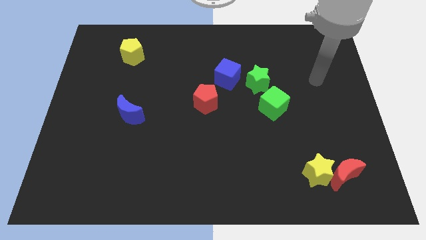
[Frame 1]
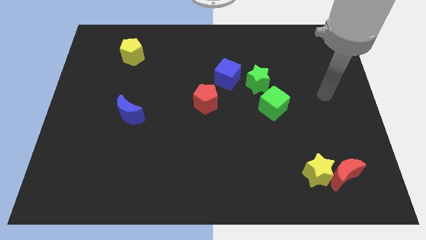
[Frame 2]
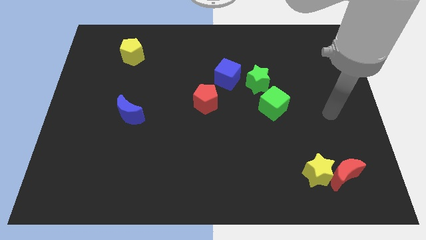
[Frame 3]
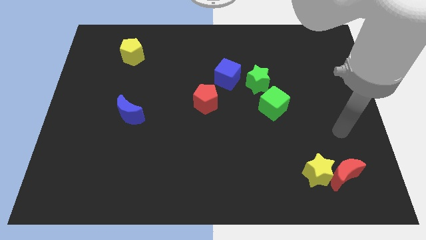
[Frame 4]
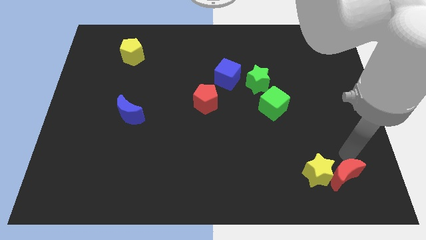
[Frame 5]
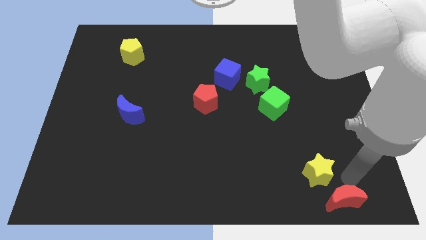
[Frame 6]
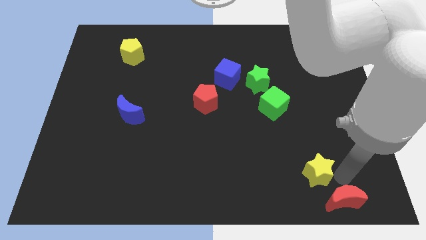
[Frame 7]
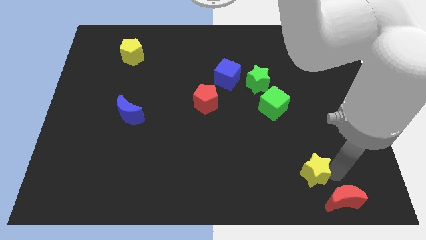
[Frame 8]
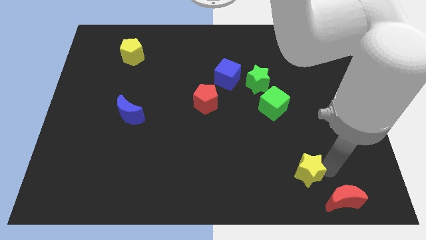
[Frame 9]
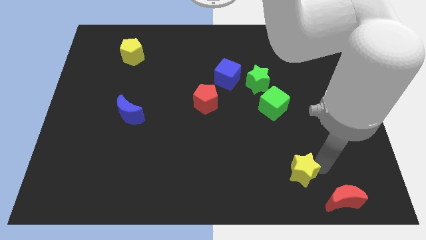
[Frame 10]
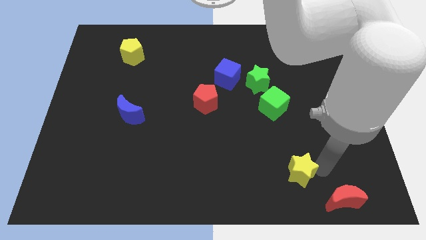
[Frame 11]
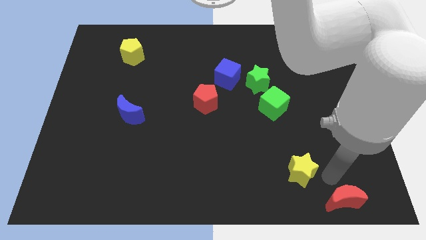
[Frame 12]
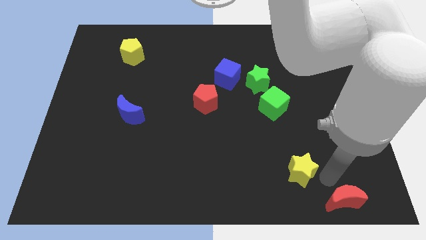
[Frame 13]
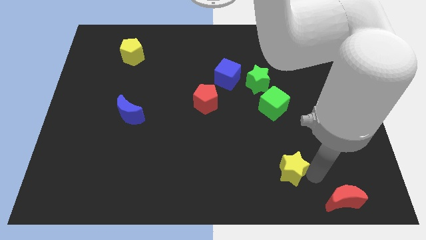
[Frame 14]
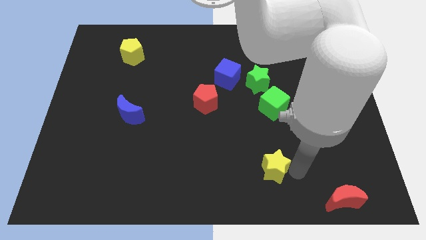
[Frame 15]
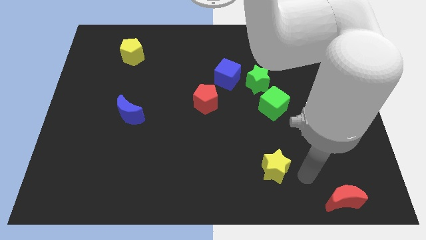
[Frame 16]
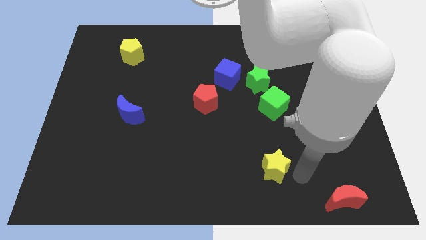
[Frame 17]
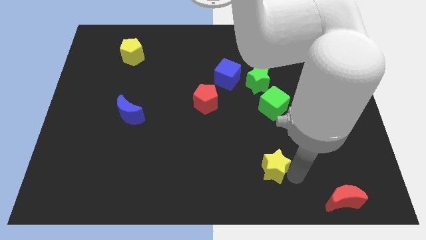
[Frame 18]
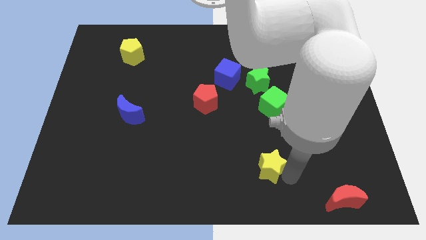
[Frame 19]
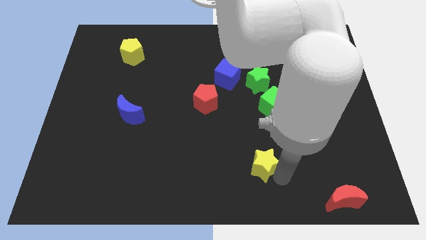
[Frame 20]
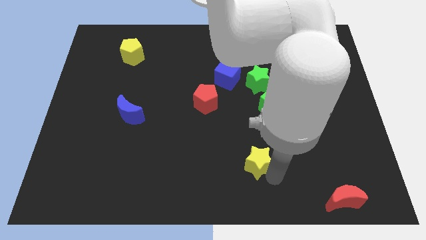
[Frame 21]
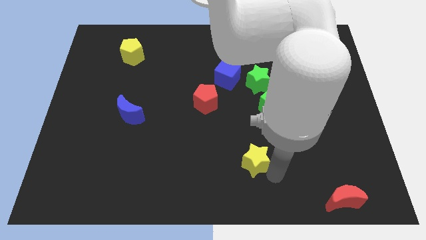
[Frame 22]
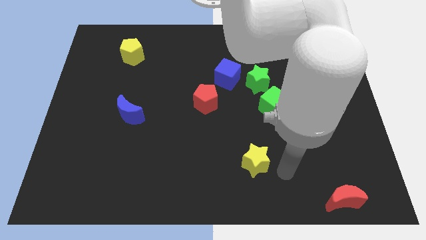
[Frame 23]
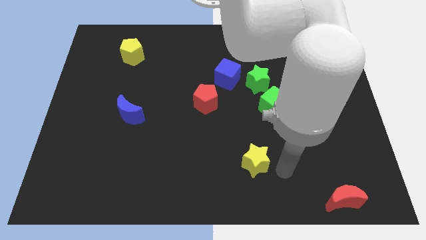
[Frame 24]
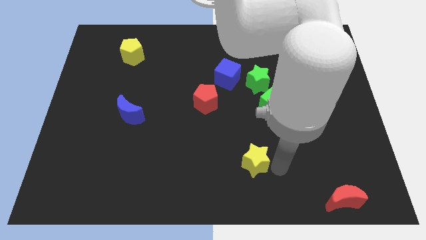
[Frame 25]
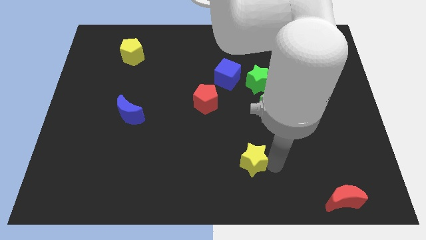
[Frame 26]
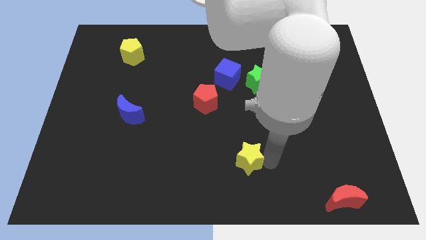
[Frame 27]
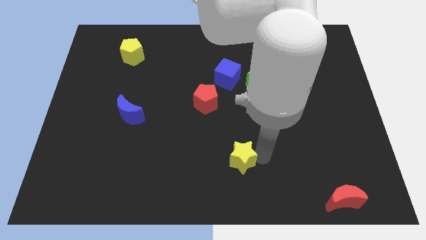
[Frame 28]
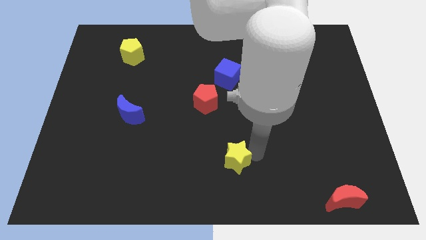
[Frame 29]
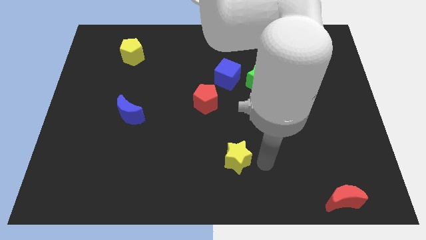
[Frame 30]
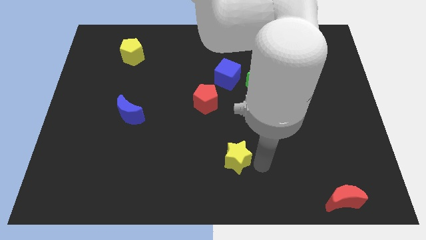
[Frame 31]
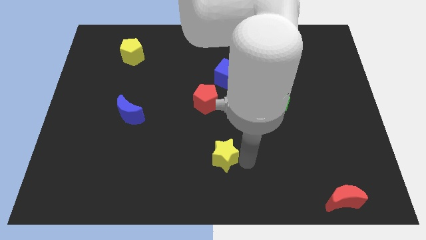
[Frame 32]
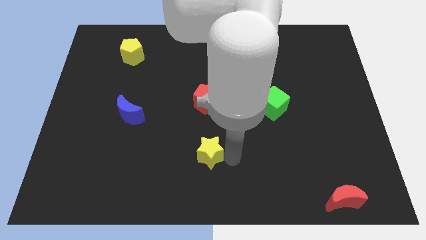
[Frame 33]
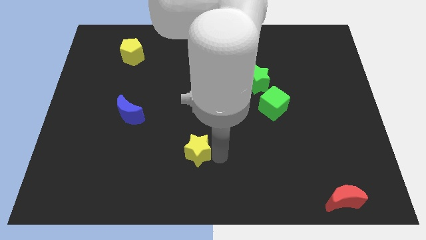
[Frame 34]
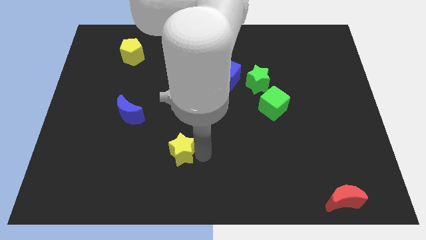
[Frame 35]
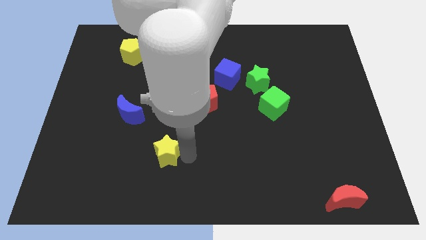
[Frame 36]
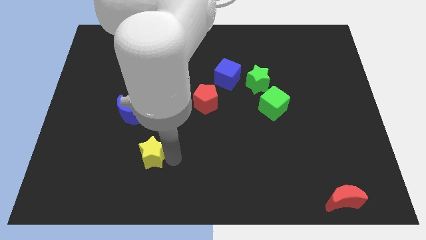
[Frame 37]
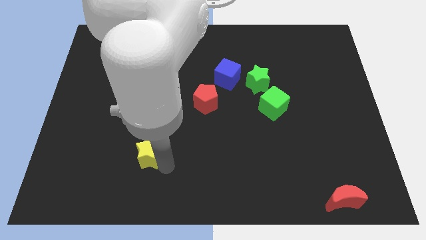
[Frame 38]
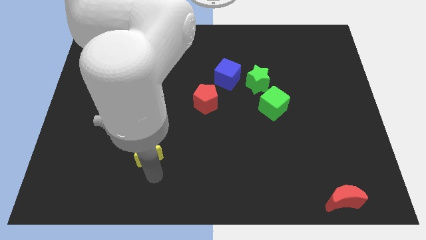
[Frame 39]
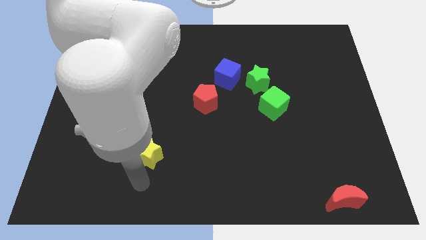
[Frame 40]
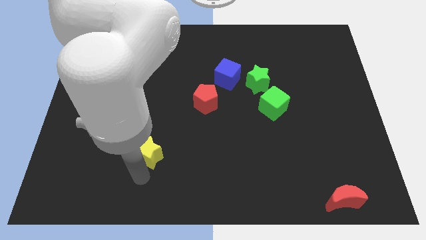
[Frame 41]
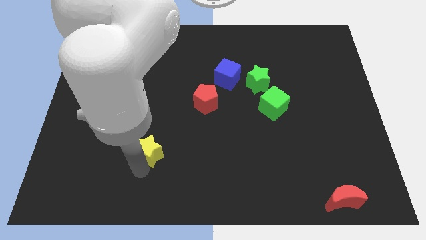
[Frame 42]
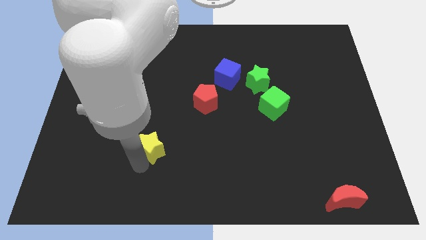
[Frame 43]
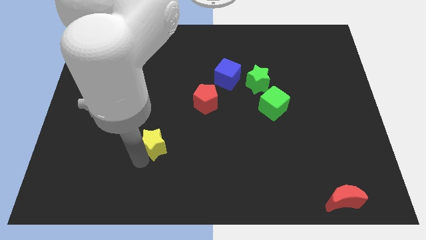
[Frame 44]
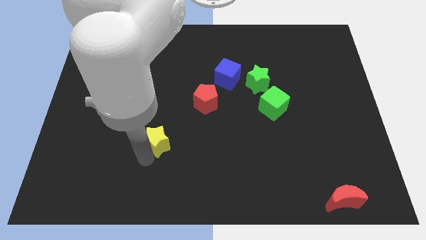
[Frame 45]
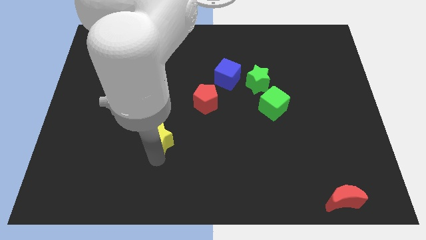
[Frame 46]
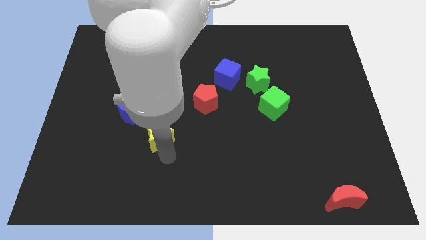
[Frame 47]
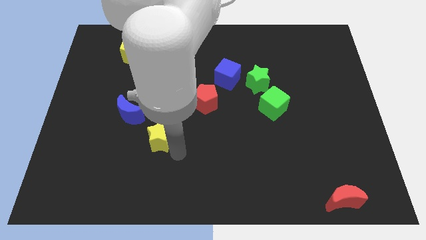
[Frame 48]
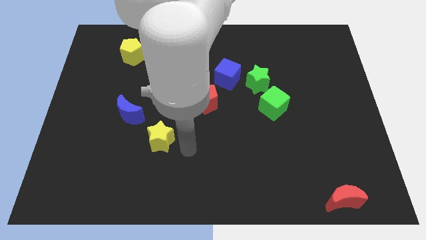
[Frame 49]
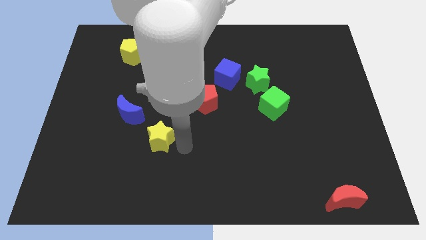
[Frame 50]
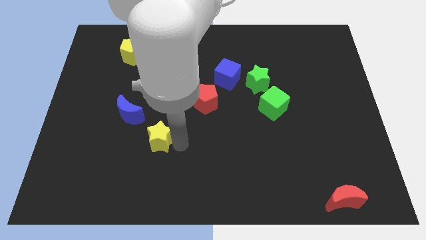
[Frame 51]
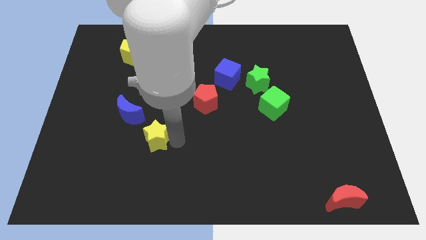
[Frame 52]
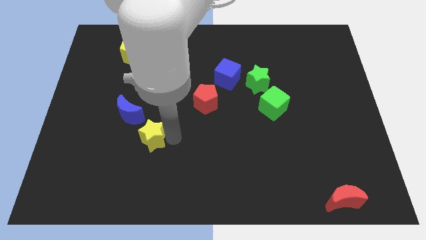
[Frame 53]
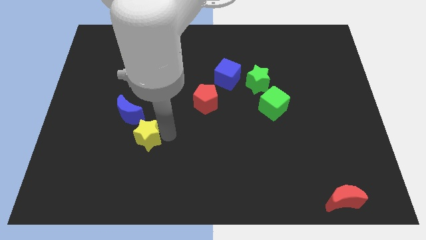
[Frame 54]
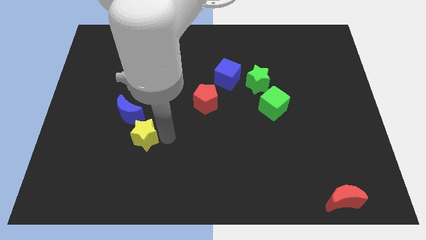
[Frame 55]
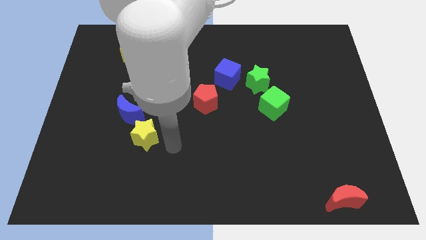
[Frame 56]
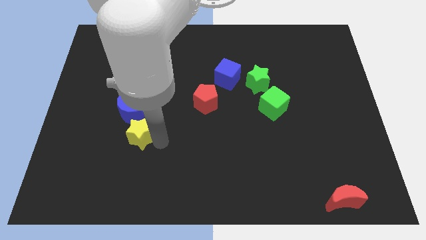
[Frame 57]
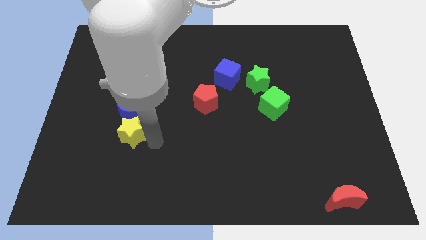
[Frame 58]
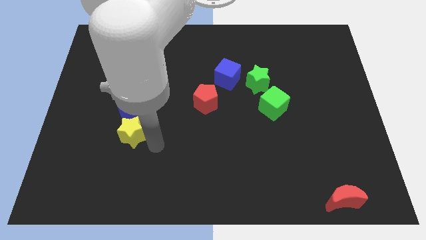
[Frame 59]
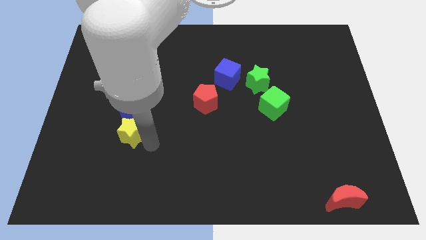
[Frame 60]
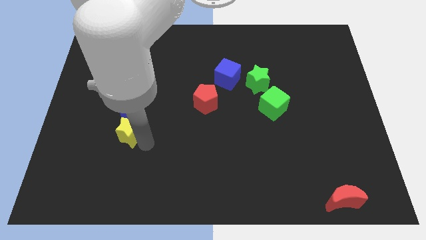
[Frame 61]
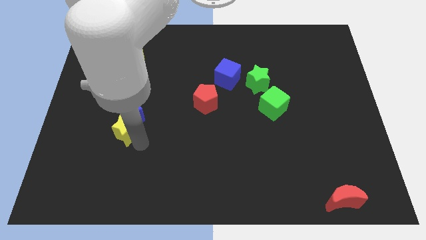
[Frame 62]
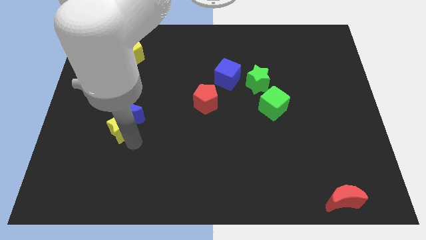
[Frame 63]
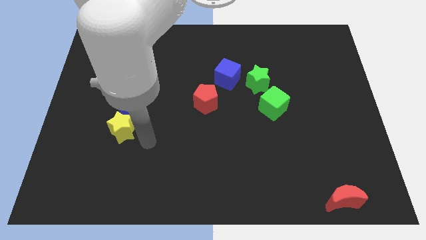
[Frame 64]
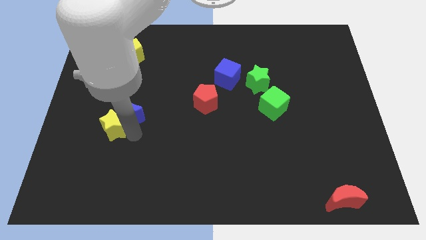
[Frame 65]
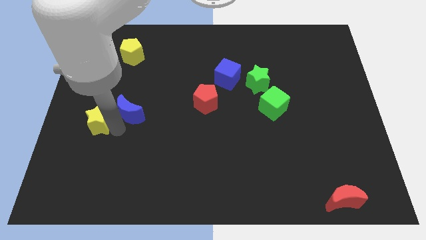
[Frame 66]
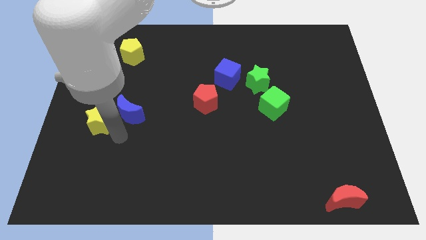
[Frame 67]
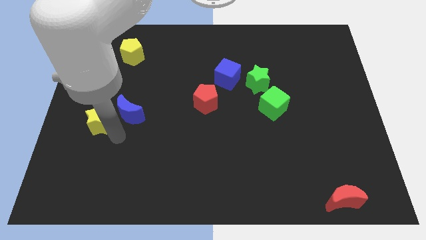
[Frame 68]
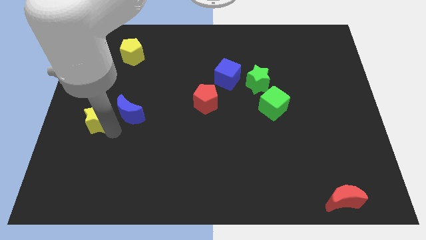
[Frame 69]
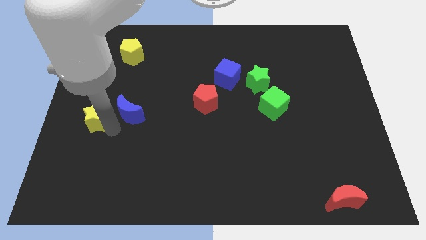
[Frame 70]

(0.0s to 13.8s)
push the yellow star to the left side of the board
